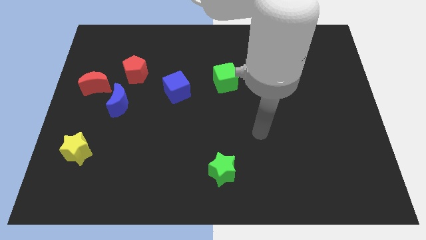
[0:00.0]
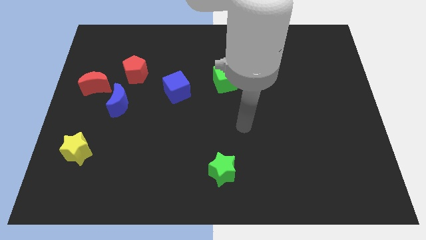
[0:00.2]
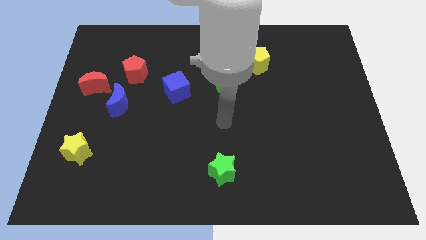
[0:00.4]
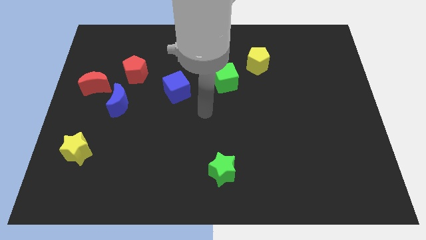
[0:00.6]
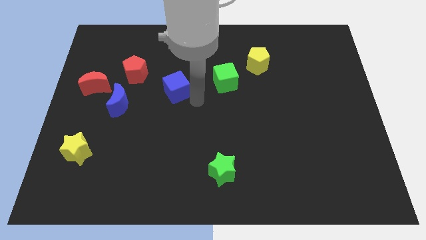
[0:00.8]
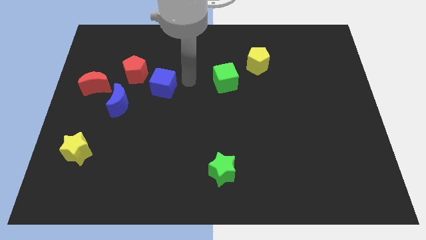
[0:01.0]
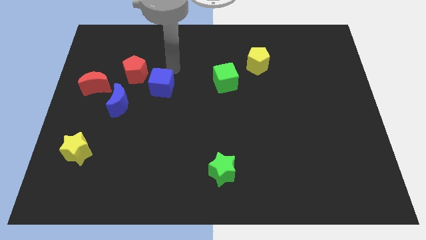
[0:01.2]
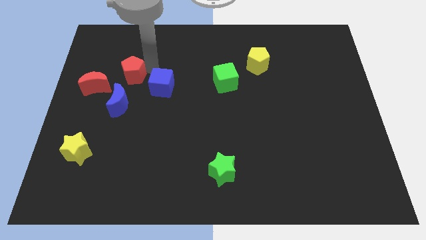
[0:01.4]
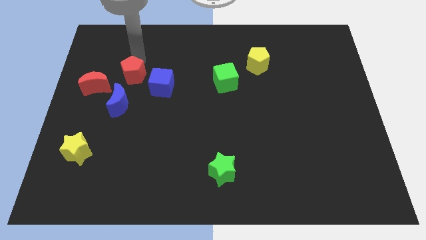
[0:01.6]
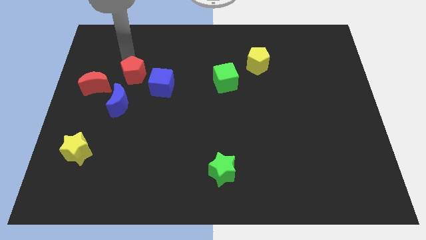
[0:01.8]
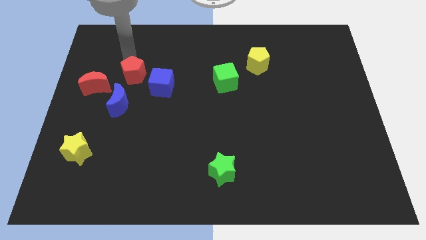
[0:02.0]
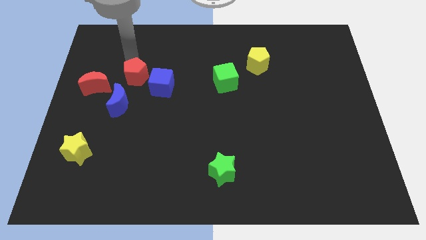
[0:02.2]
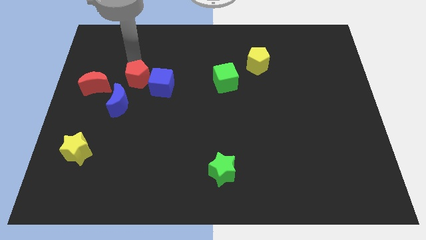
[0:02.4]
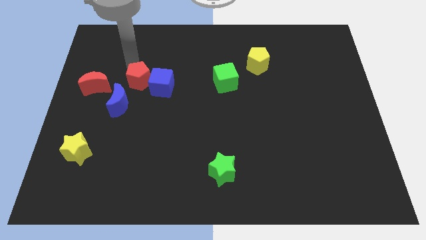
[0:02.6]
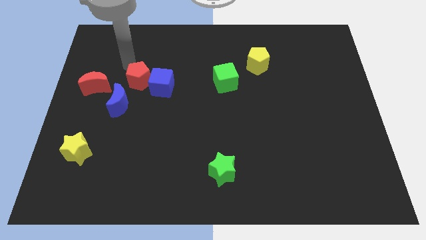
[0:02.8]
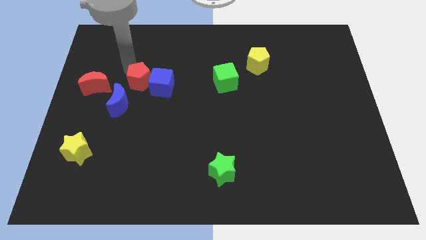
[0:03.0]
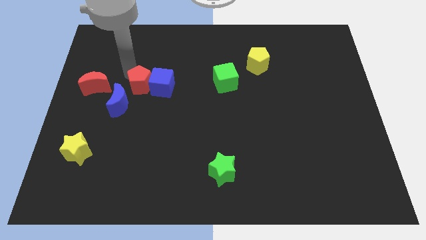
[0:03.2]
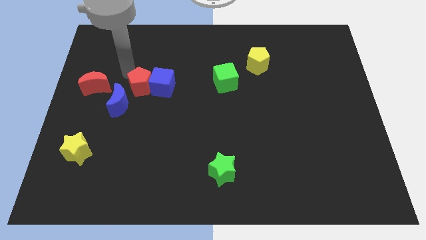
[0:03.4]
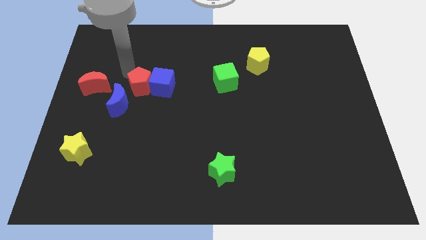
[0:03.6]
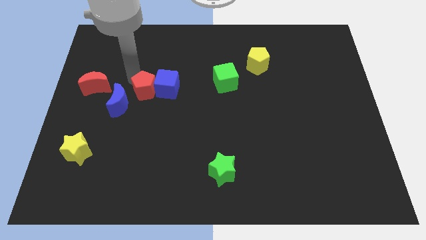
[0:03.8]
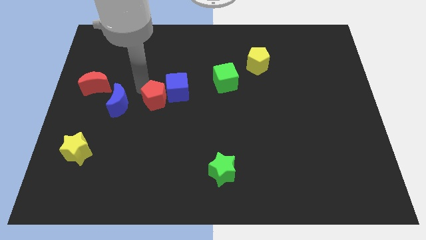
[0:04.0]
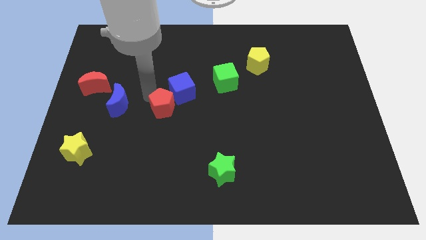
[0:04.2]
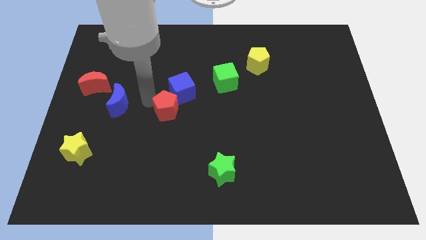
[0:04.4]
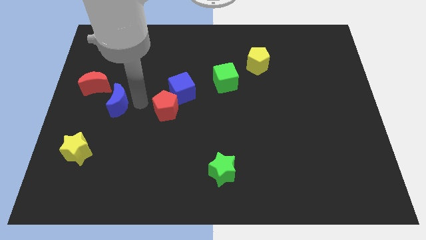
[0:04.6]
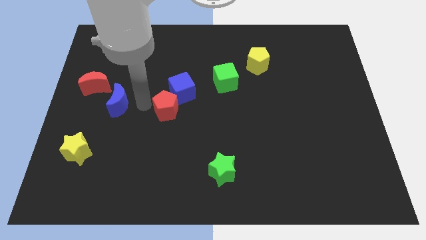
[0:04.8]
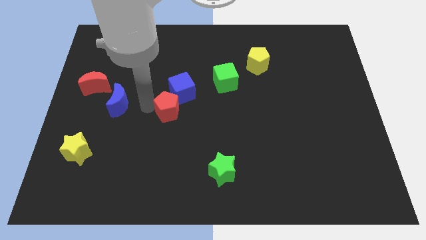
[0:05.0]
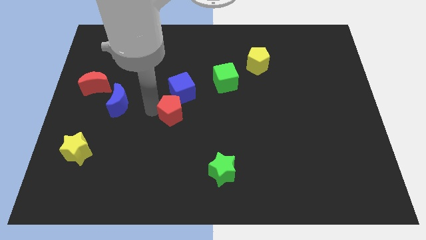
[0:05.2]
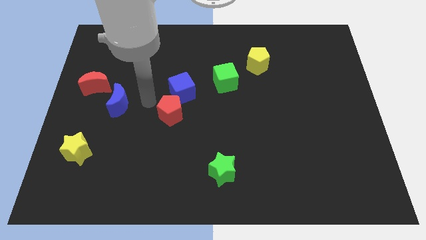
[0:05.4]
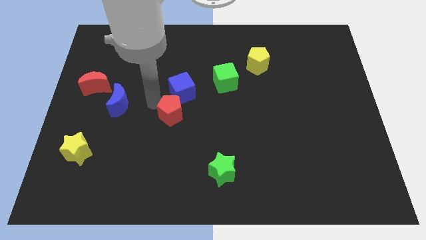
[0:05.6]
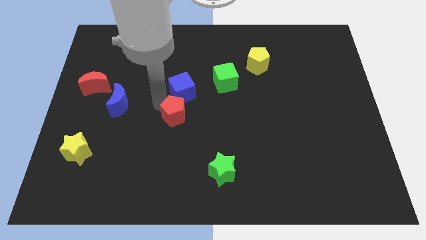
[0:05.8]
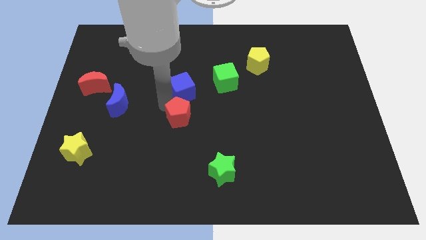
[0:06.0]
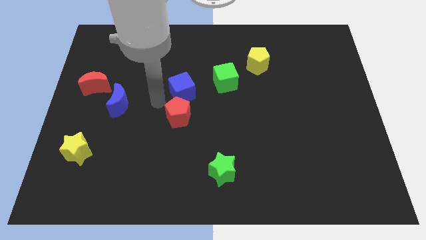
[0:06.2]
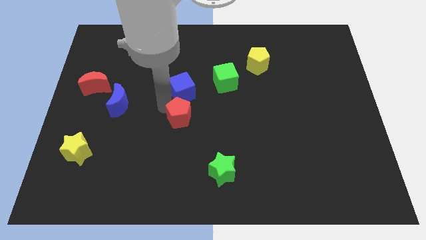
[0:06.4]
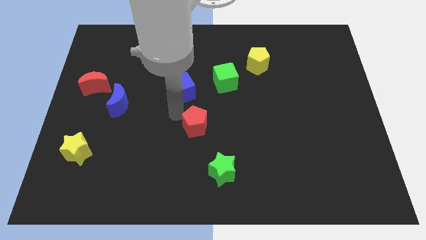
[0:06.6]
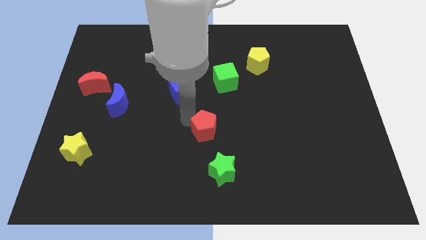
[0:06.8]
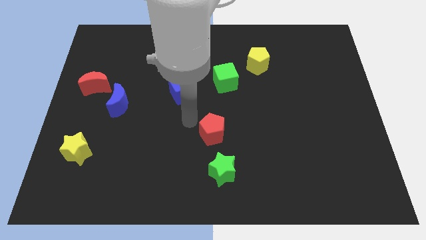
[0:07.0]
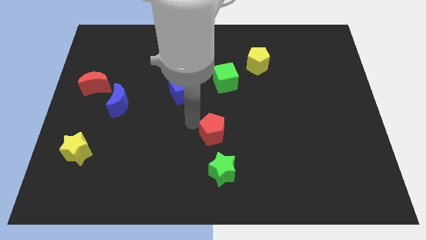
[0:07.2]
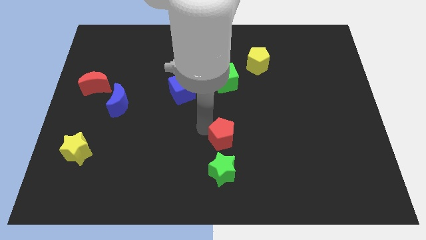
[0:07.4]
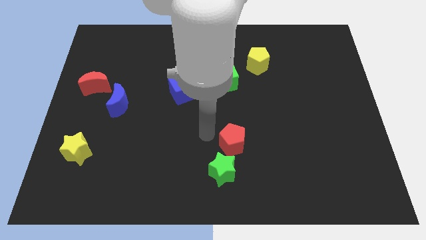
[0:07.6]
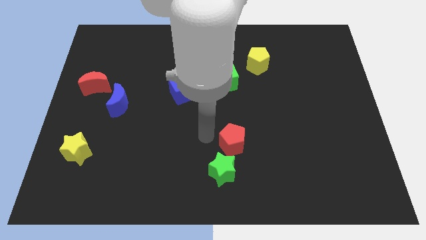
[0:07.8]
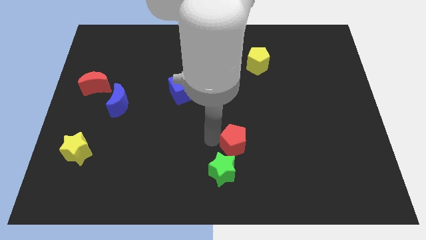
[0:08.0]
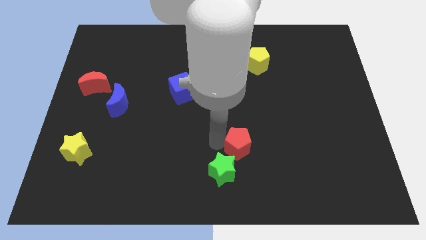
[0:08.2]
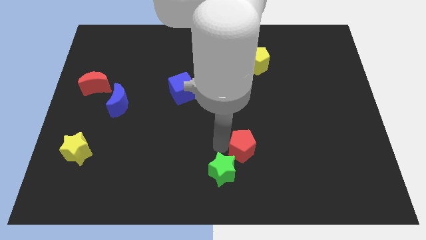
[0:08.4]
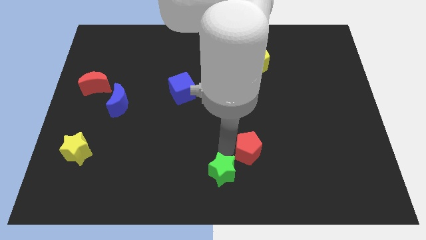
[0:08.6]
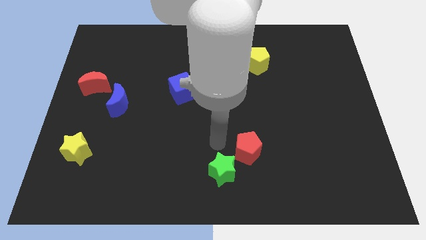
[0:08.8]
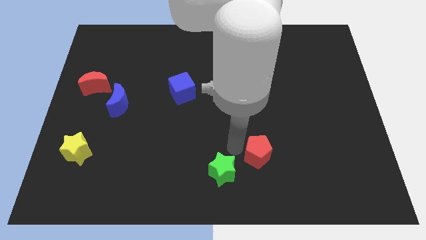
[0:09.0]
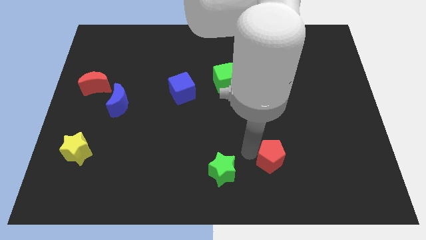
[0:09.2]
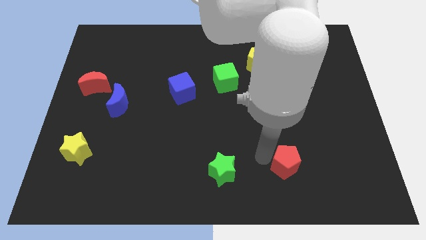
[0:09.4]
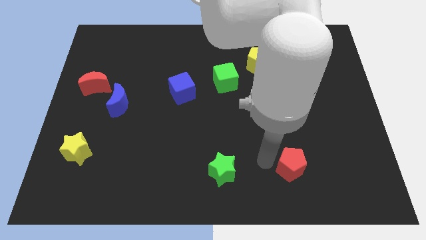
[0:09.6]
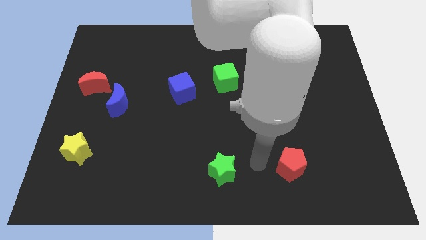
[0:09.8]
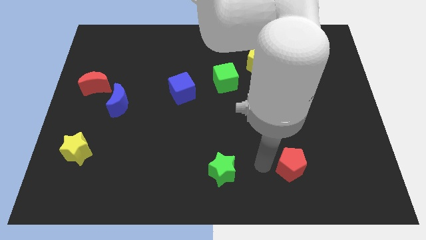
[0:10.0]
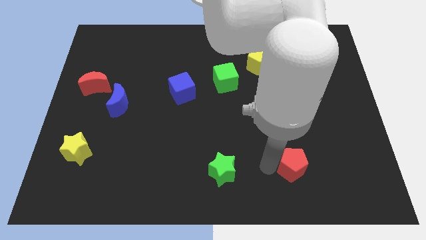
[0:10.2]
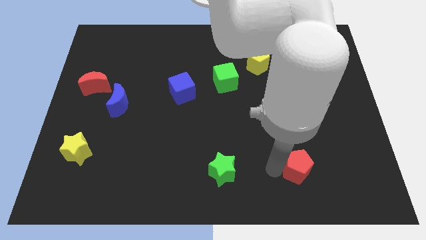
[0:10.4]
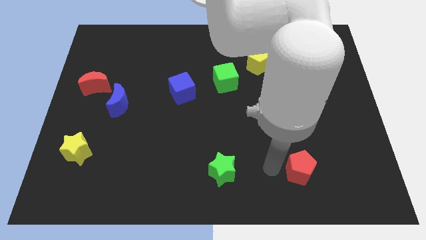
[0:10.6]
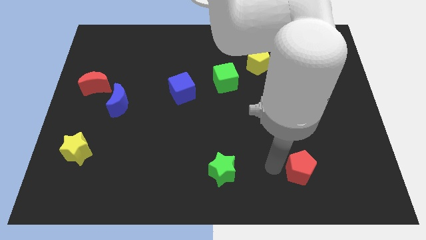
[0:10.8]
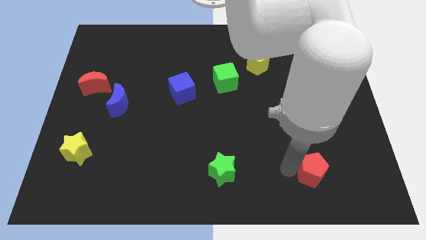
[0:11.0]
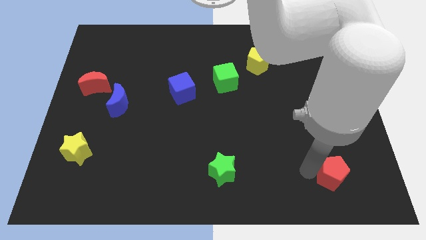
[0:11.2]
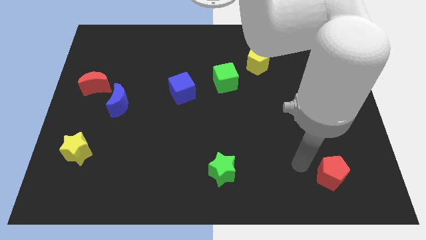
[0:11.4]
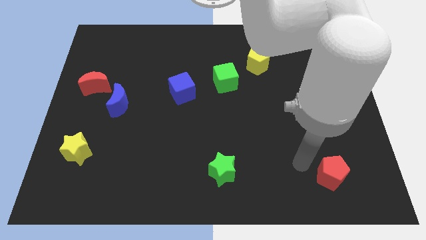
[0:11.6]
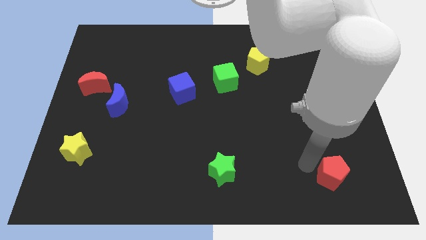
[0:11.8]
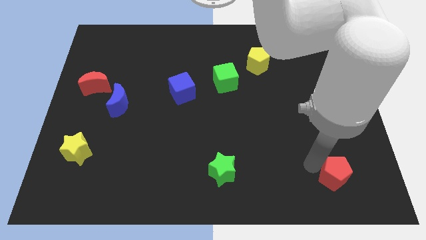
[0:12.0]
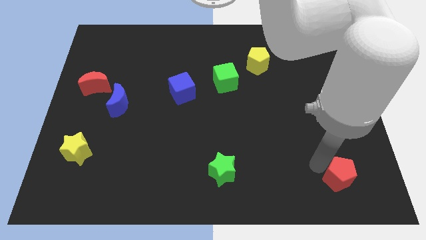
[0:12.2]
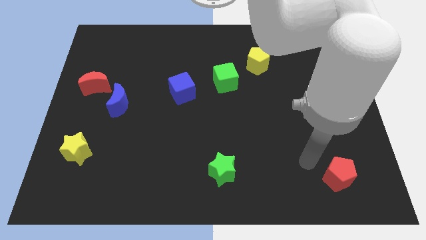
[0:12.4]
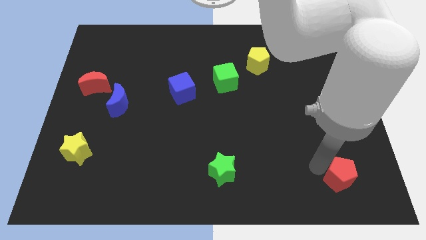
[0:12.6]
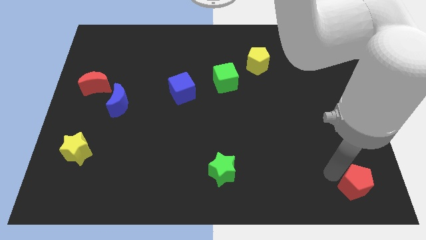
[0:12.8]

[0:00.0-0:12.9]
slide the red pentagon to the bottom right of the board

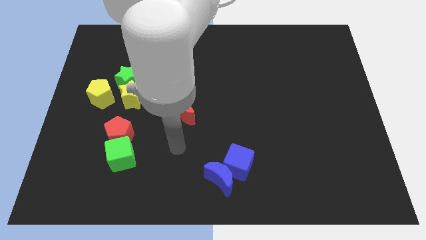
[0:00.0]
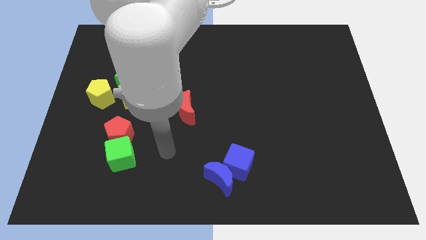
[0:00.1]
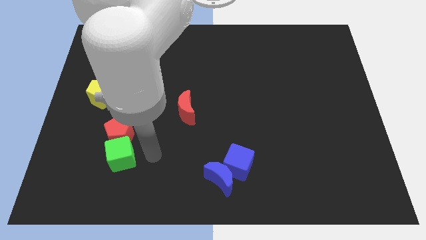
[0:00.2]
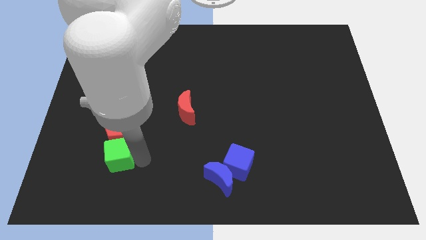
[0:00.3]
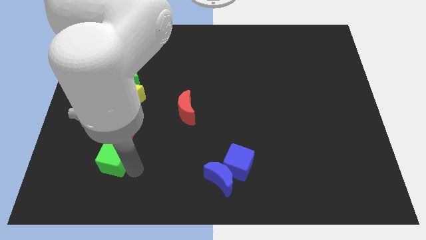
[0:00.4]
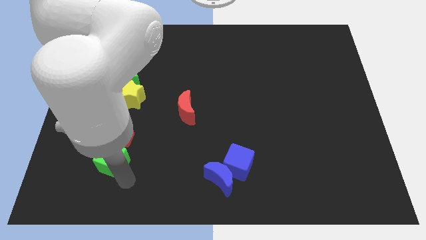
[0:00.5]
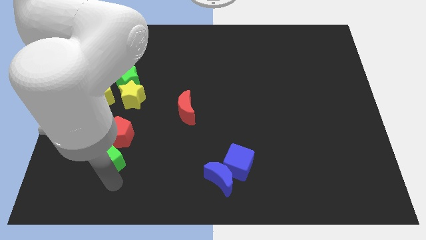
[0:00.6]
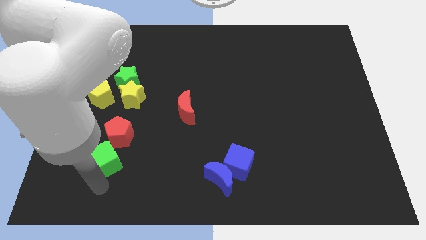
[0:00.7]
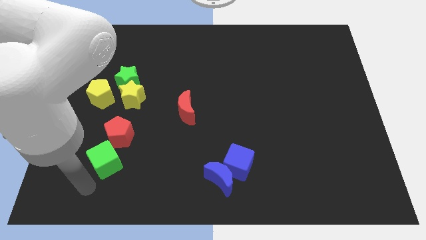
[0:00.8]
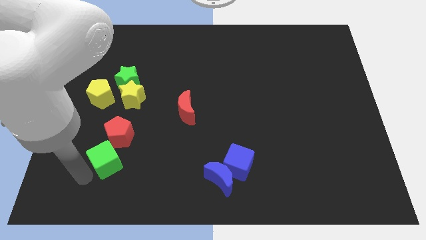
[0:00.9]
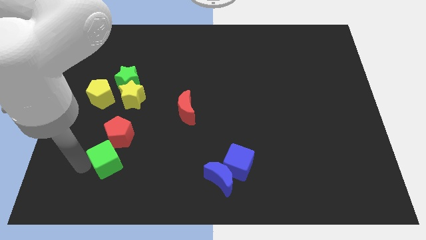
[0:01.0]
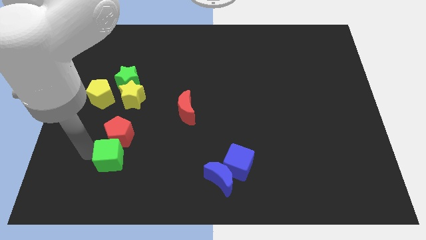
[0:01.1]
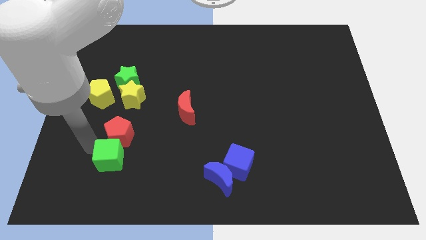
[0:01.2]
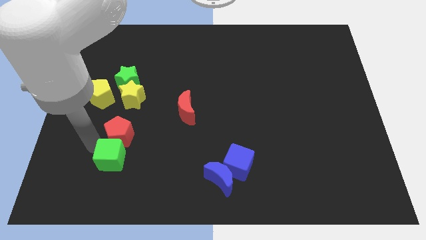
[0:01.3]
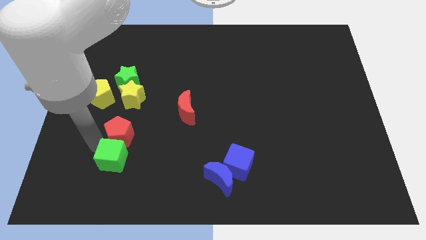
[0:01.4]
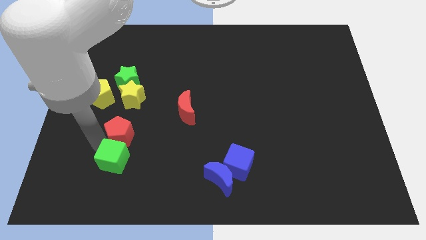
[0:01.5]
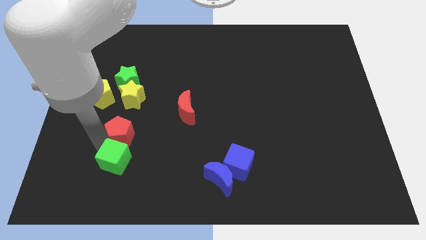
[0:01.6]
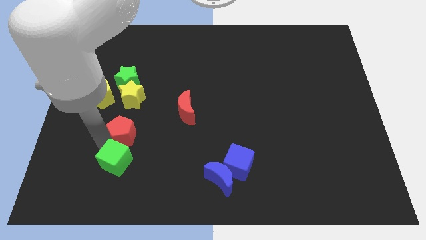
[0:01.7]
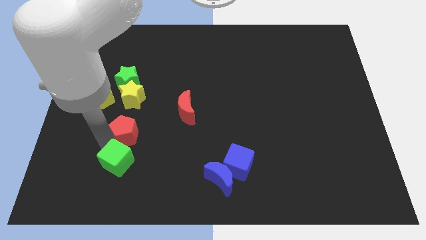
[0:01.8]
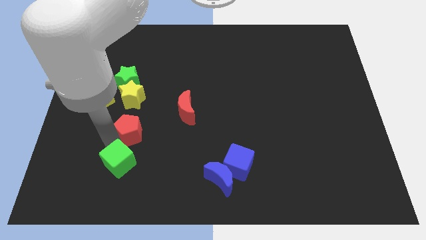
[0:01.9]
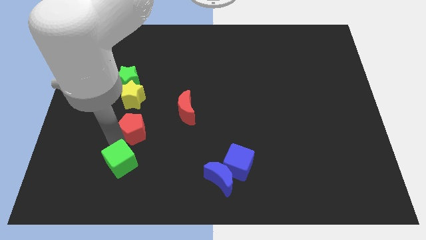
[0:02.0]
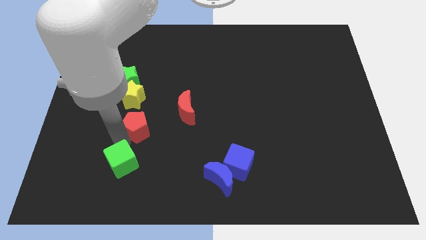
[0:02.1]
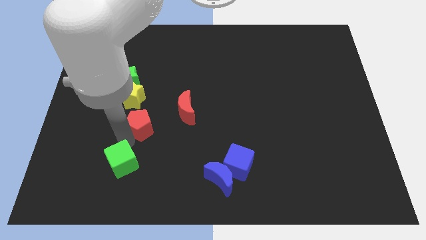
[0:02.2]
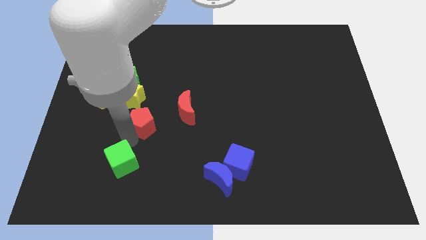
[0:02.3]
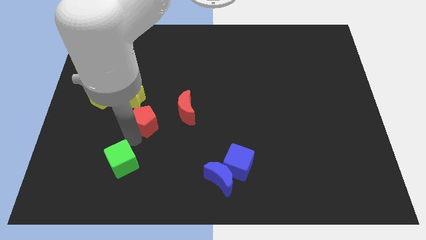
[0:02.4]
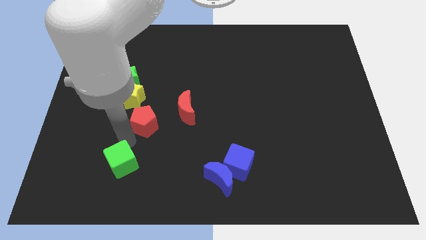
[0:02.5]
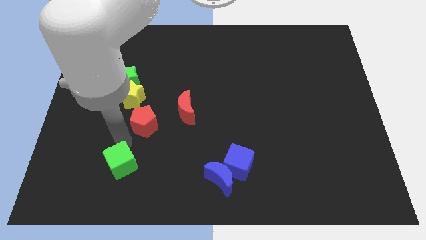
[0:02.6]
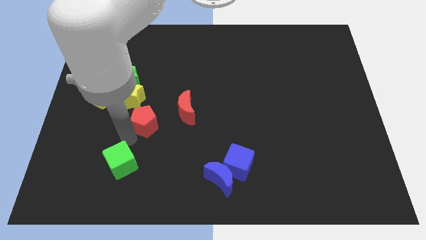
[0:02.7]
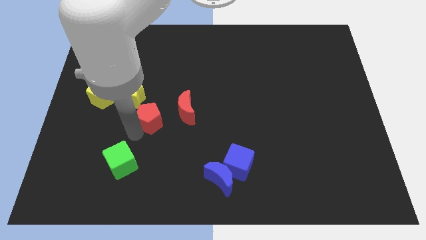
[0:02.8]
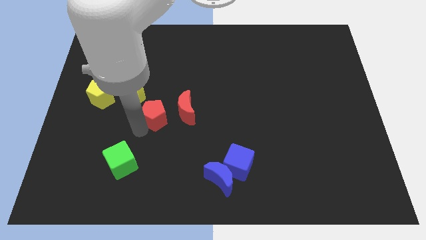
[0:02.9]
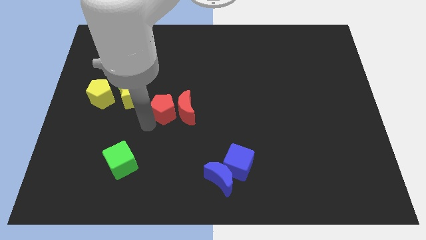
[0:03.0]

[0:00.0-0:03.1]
slide the red pentagon to the center of the board
